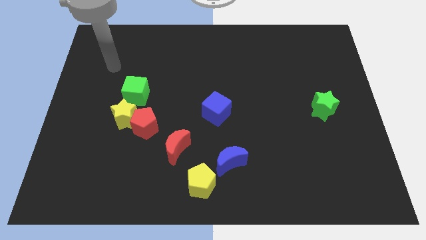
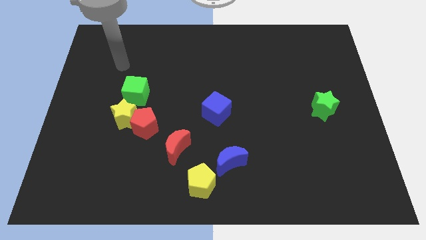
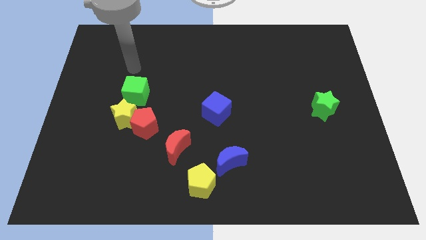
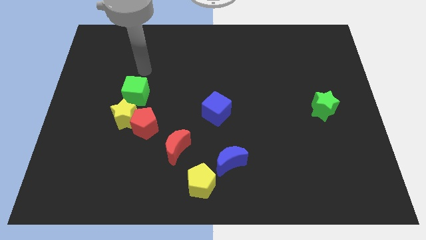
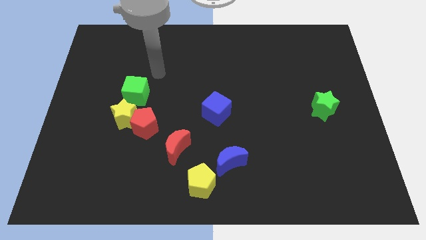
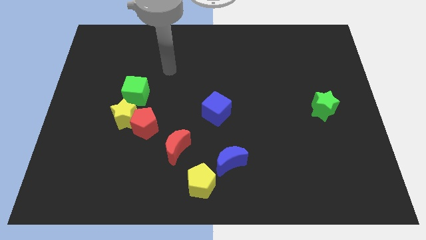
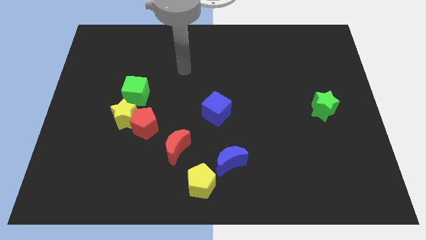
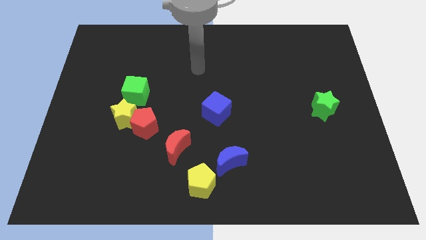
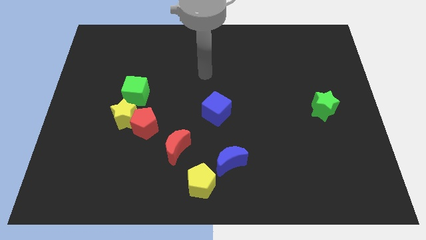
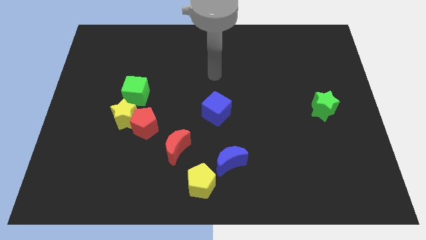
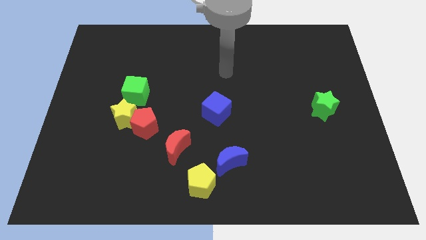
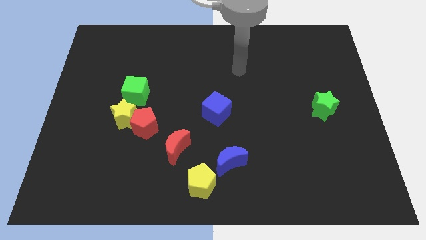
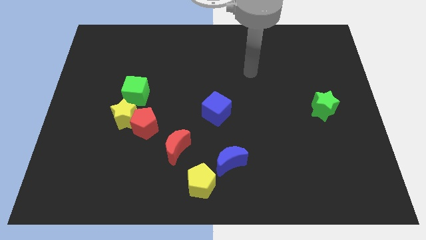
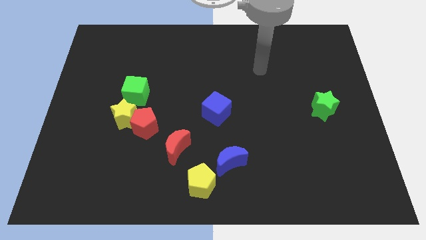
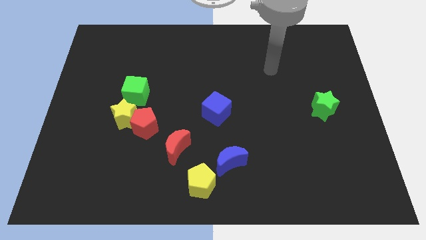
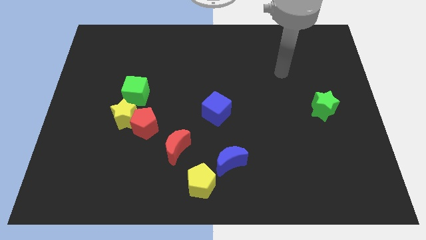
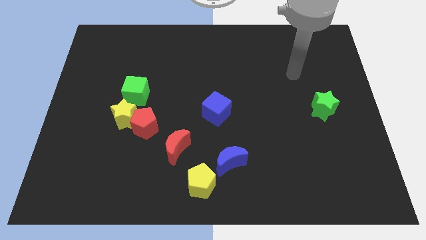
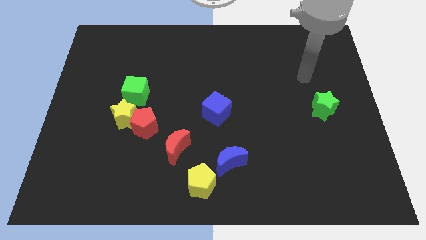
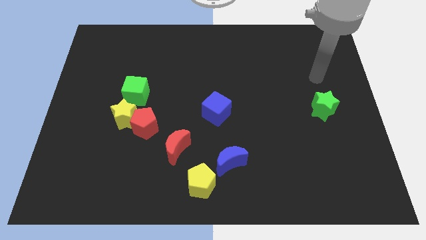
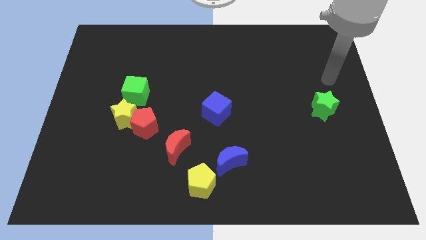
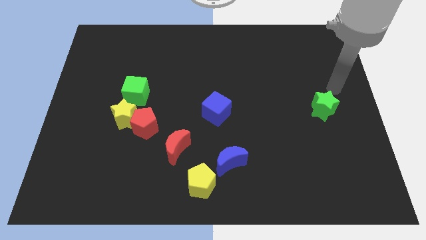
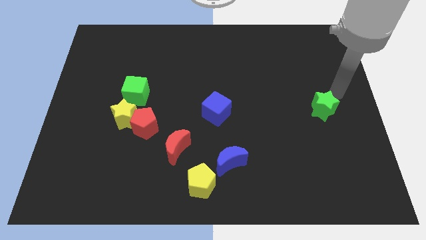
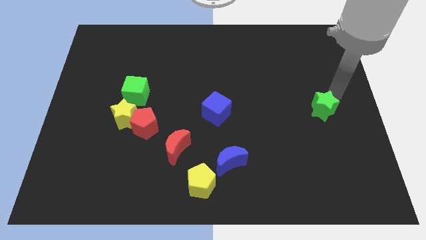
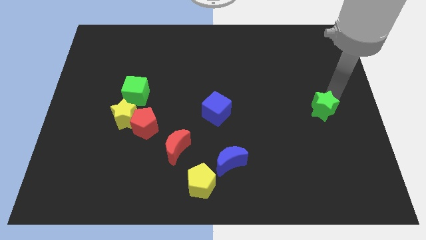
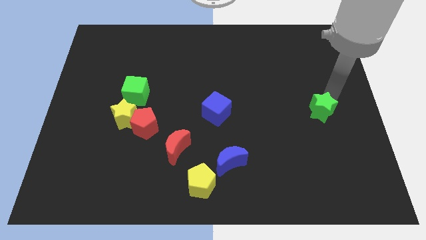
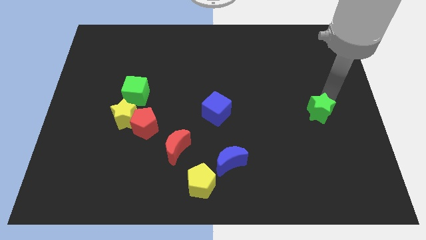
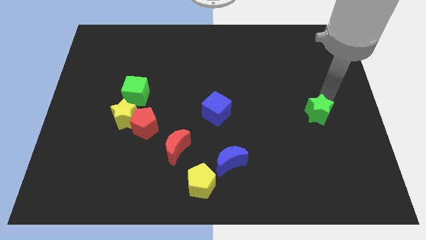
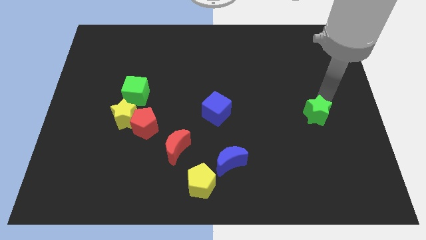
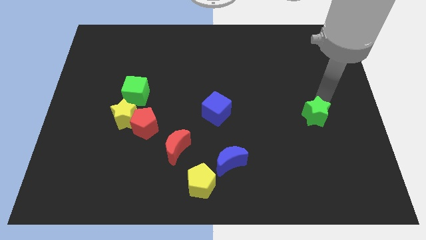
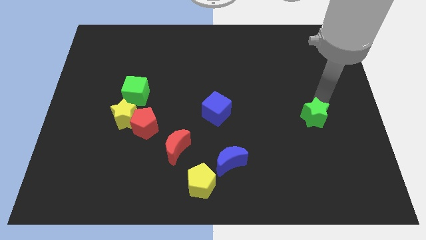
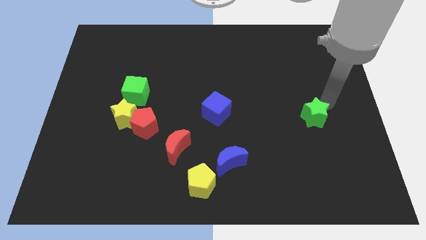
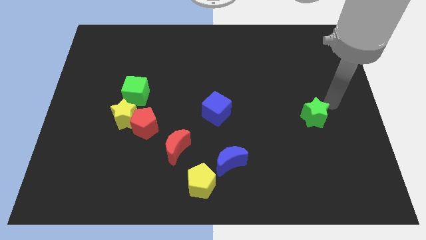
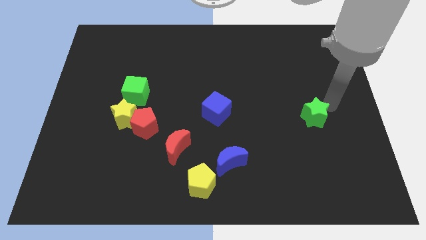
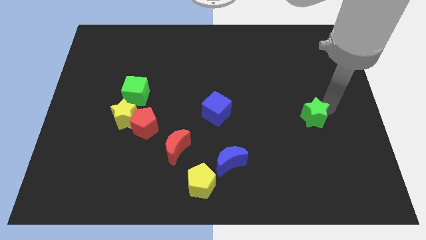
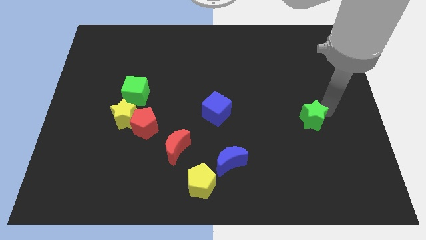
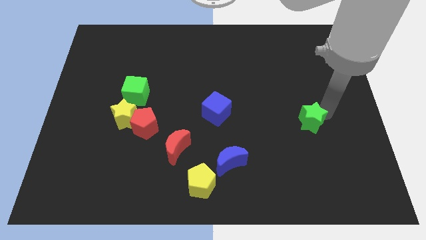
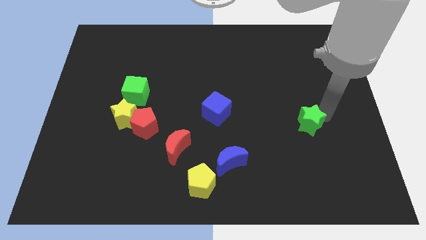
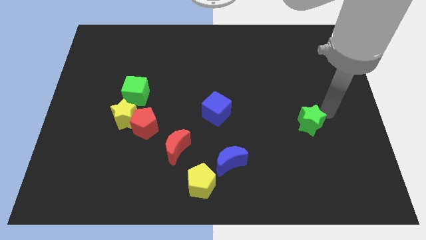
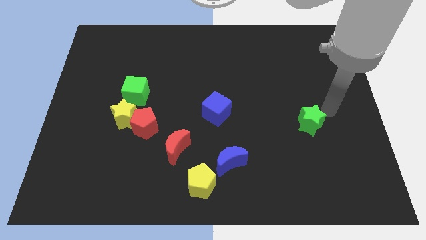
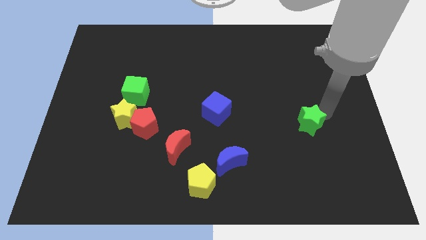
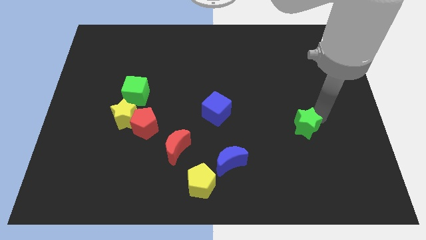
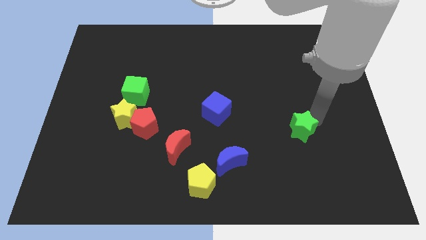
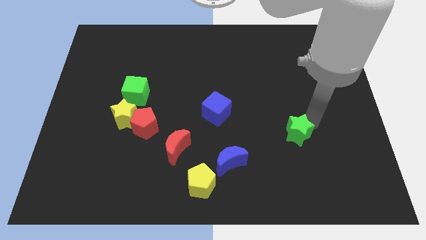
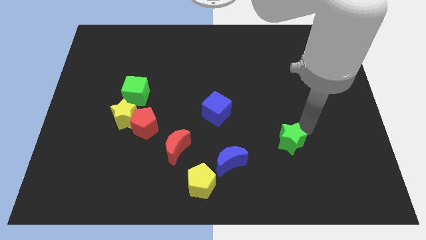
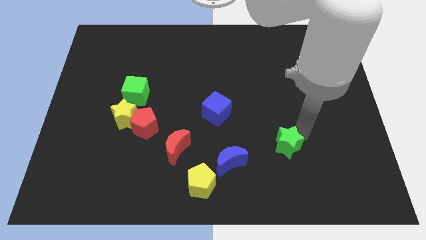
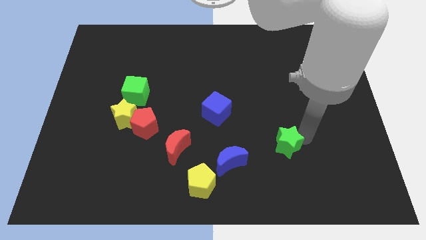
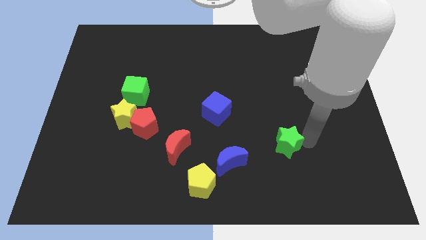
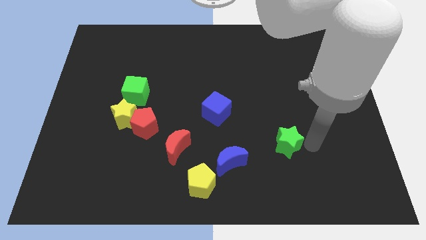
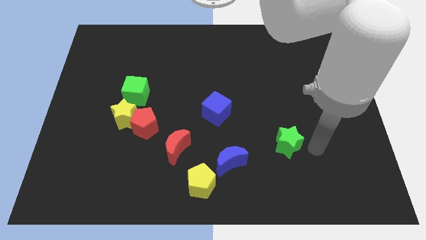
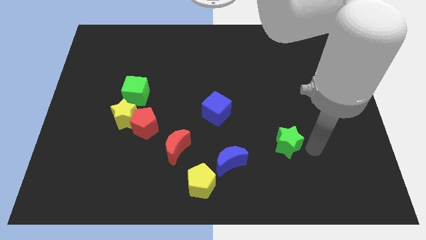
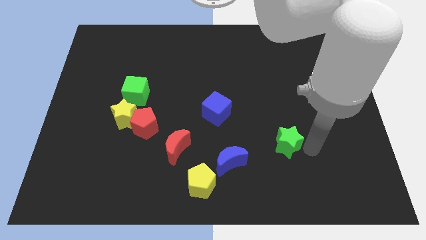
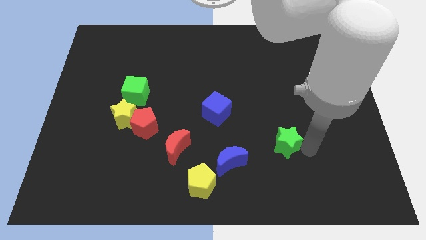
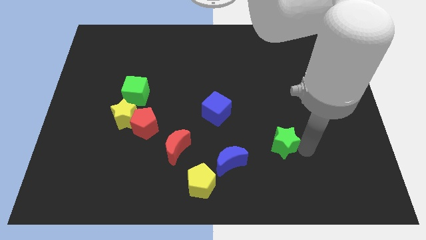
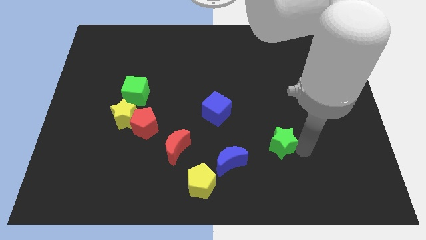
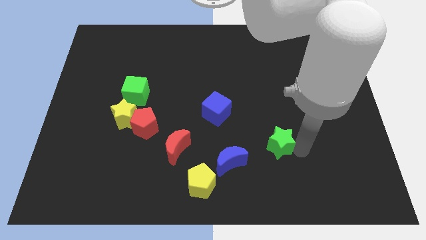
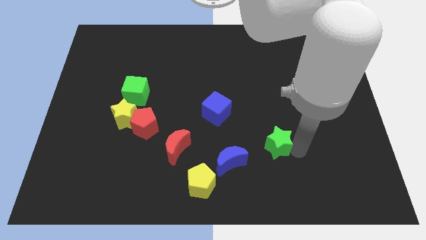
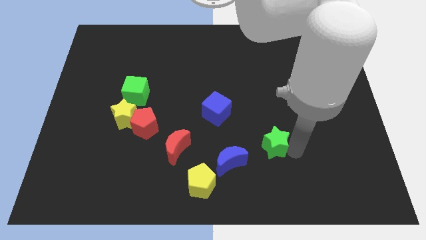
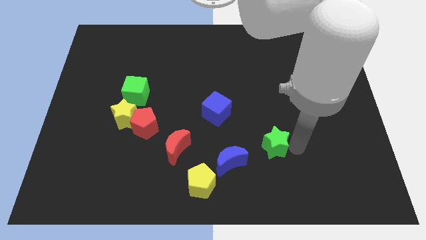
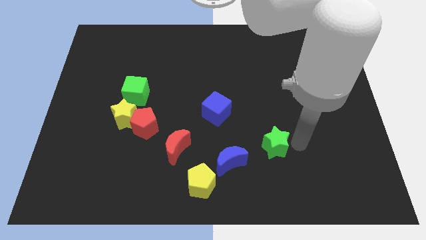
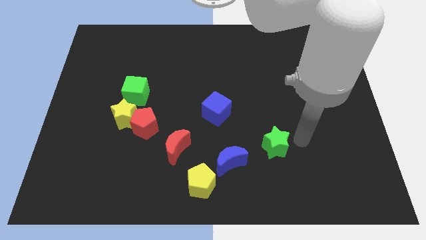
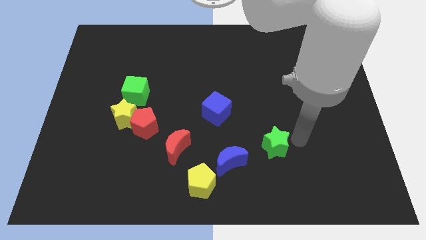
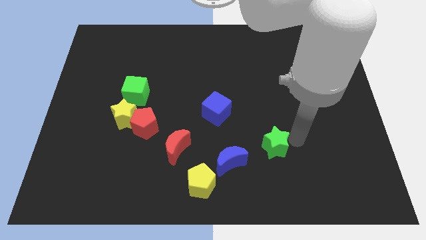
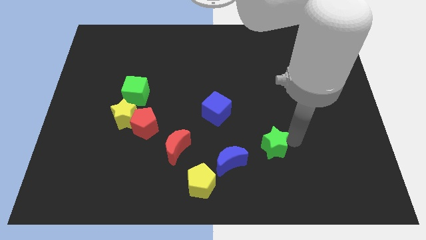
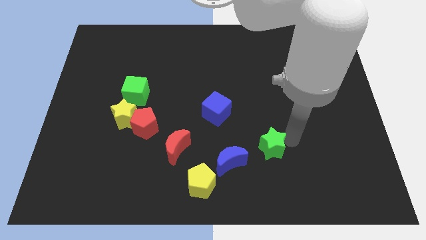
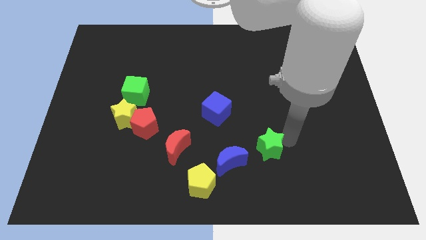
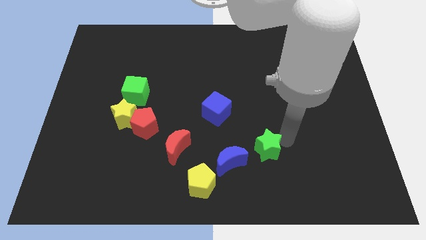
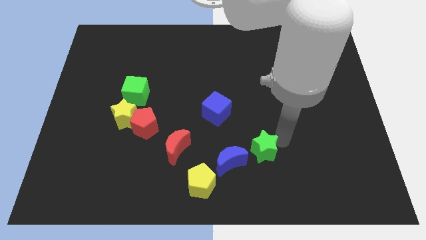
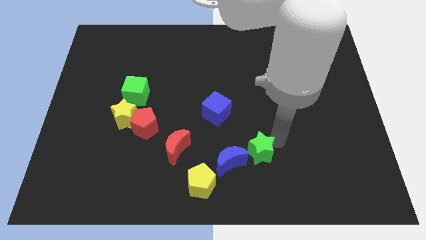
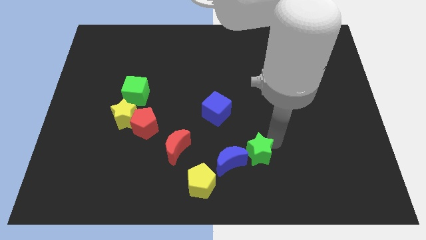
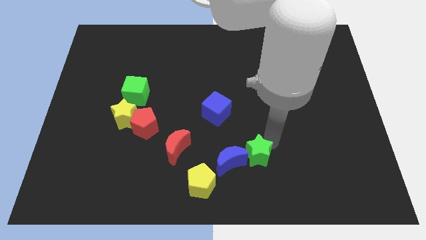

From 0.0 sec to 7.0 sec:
push the green star to the blue moon
